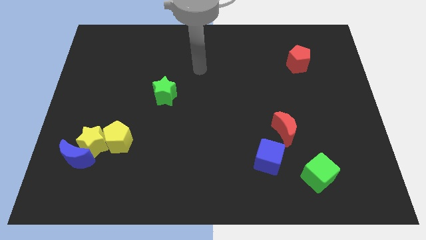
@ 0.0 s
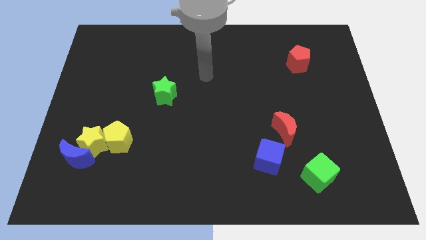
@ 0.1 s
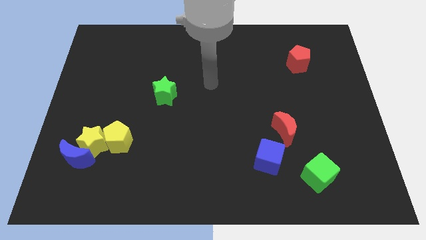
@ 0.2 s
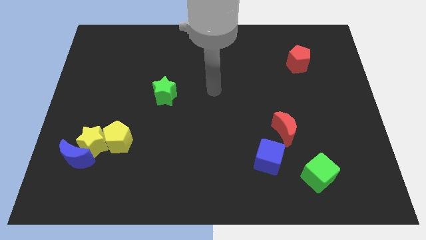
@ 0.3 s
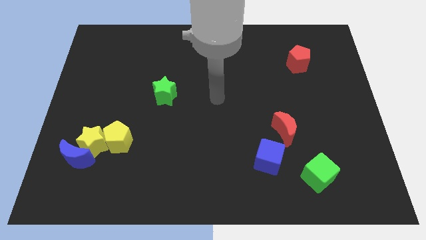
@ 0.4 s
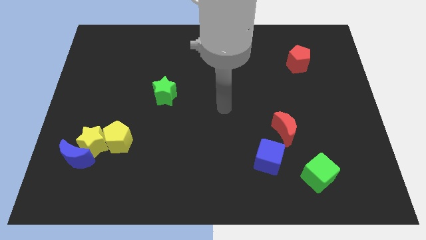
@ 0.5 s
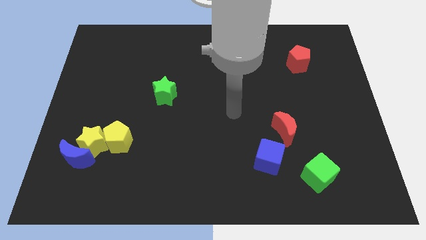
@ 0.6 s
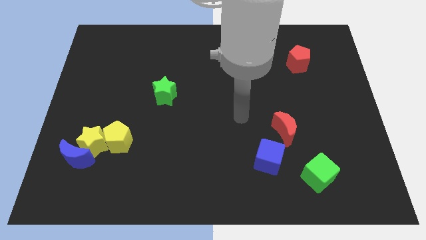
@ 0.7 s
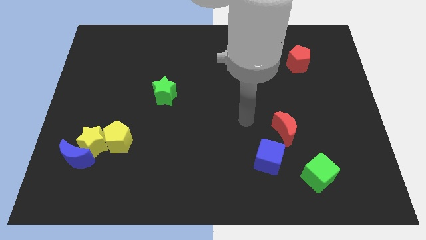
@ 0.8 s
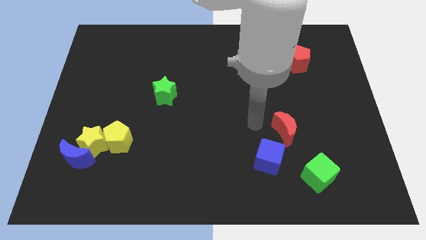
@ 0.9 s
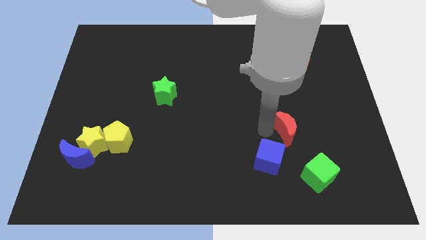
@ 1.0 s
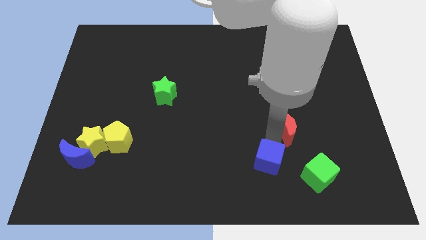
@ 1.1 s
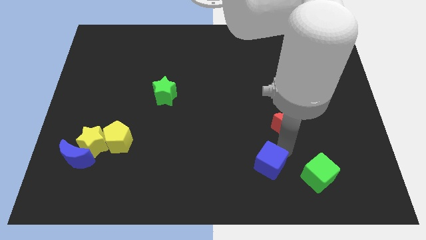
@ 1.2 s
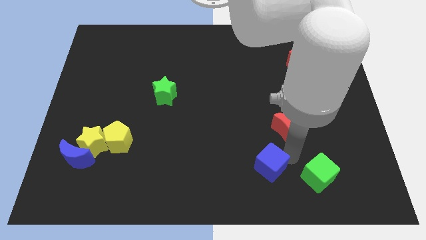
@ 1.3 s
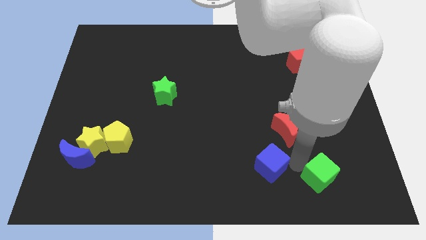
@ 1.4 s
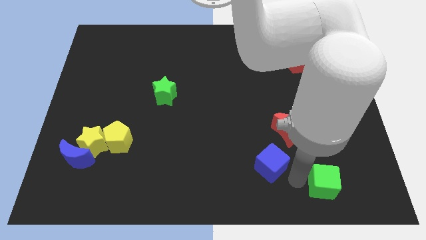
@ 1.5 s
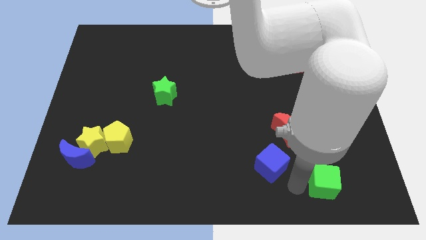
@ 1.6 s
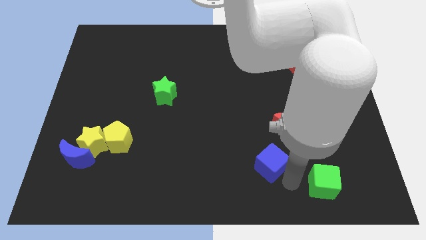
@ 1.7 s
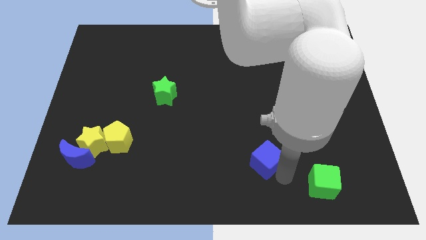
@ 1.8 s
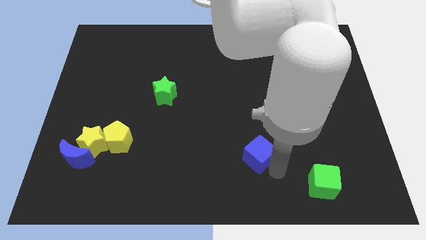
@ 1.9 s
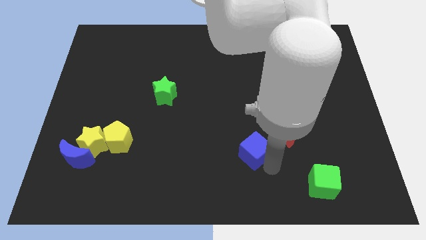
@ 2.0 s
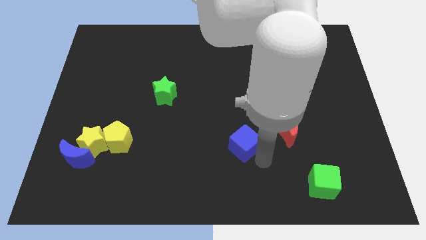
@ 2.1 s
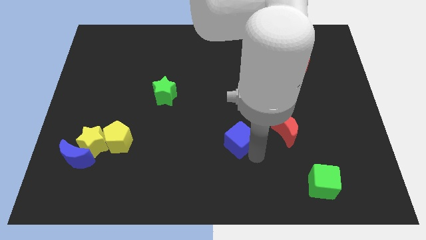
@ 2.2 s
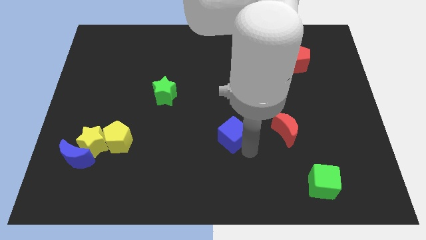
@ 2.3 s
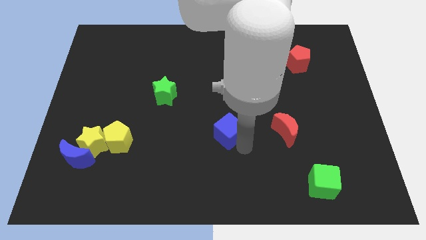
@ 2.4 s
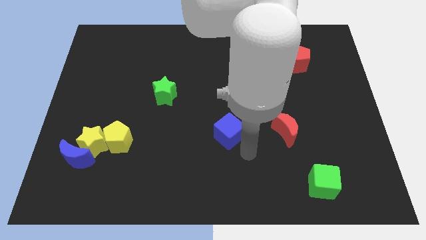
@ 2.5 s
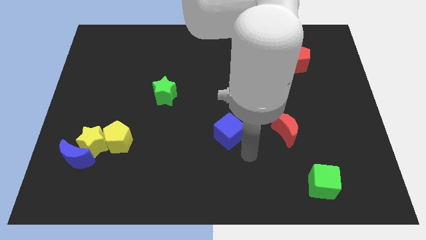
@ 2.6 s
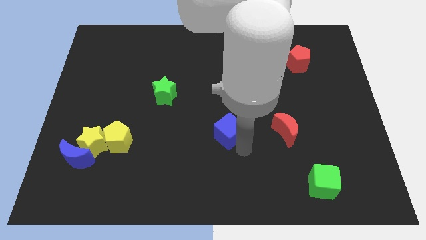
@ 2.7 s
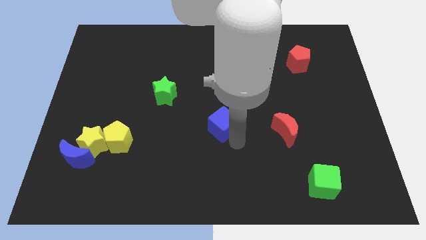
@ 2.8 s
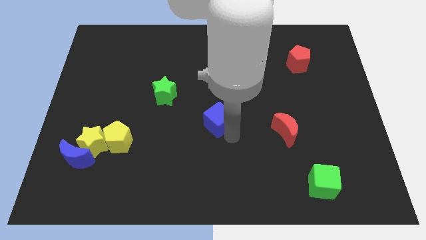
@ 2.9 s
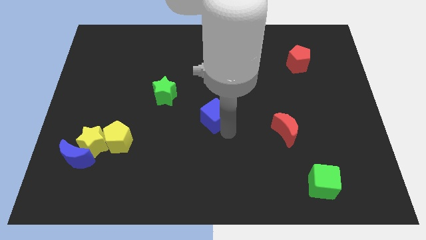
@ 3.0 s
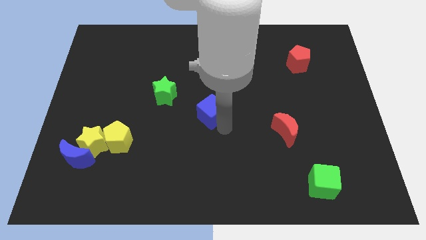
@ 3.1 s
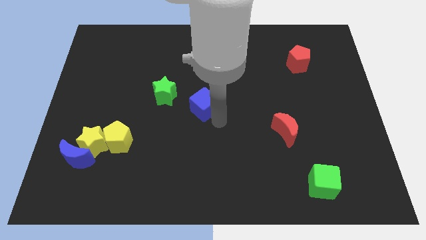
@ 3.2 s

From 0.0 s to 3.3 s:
move the blue cube diagonally up and left

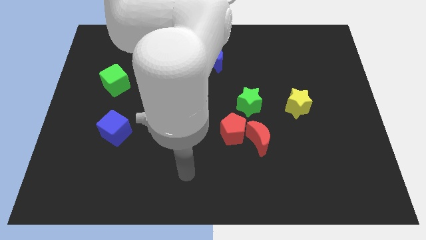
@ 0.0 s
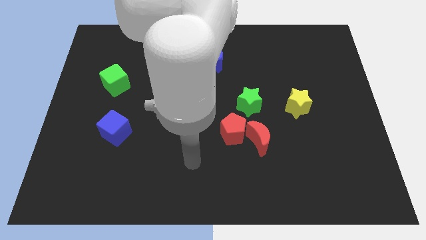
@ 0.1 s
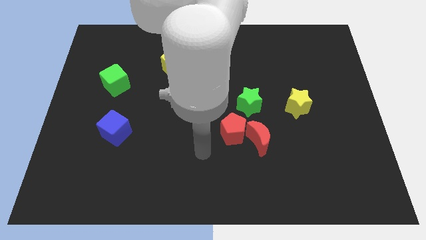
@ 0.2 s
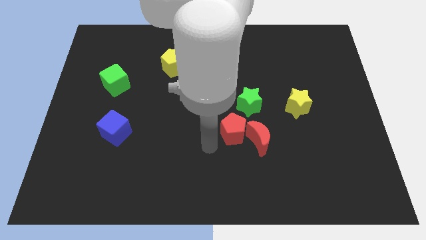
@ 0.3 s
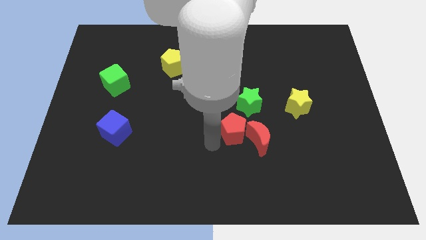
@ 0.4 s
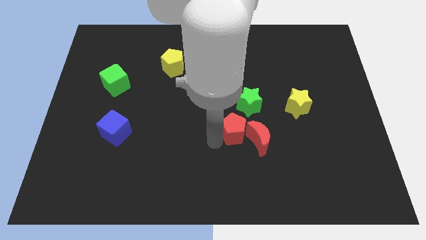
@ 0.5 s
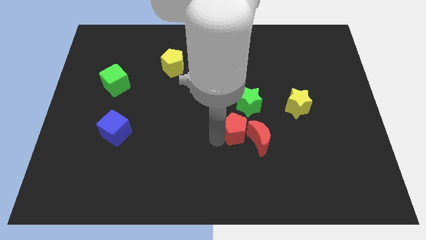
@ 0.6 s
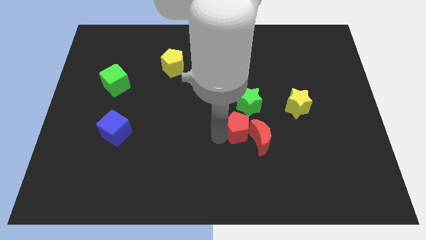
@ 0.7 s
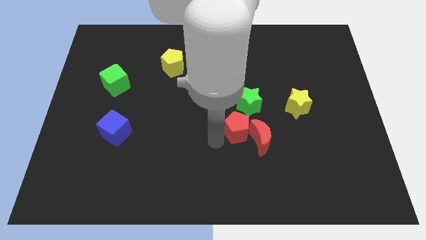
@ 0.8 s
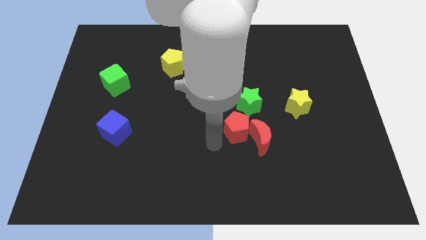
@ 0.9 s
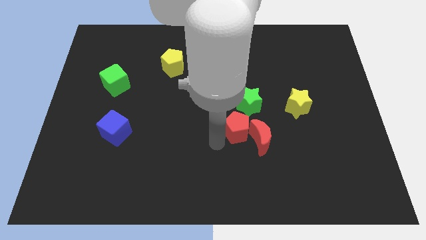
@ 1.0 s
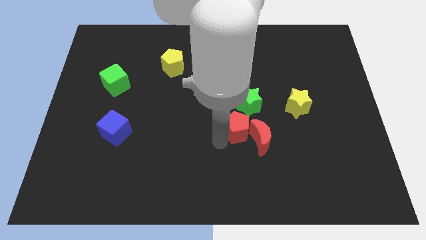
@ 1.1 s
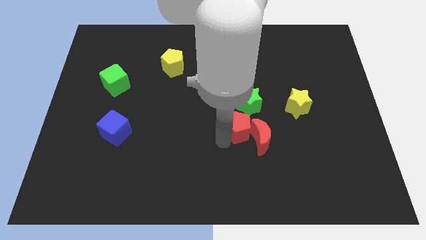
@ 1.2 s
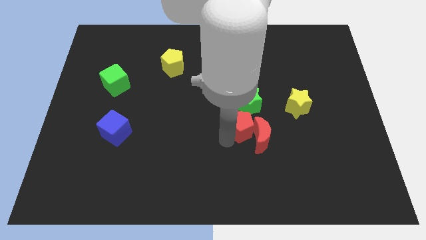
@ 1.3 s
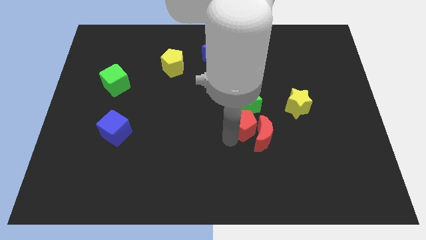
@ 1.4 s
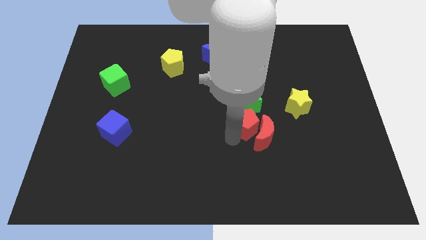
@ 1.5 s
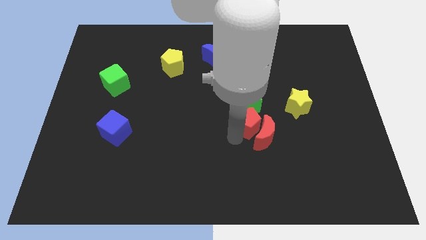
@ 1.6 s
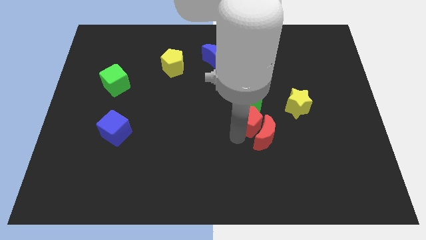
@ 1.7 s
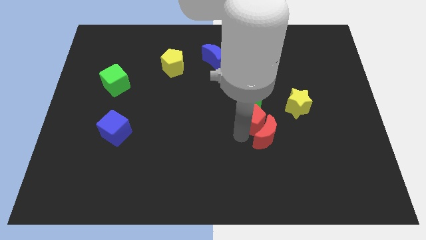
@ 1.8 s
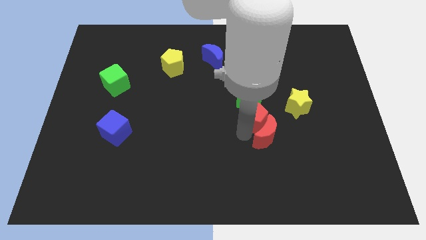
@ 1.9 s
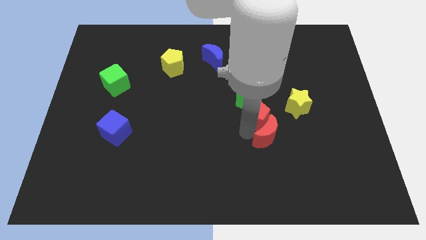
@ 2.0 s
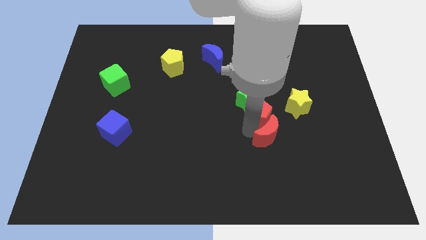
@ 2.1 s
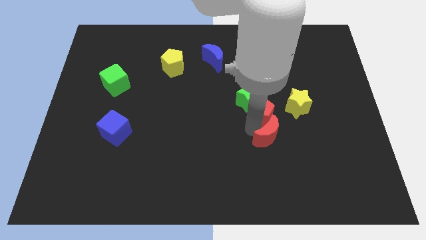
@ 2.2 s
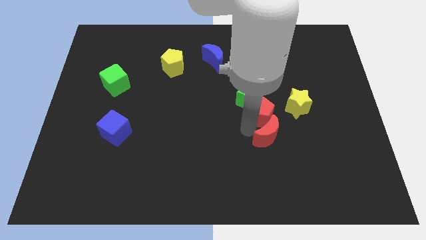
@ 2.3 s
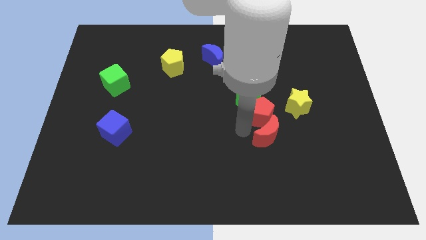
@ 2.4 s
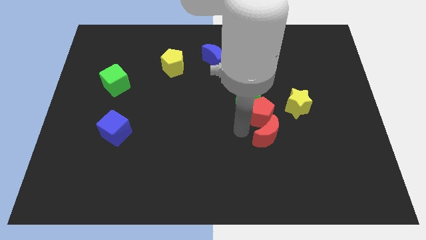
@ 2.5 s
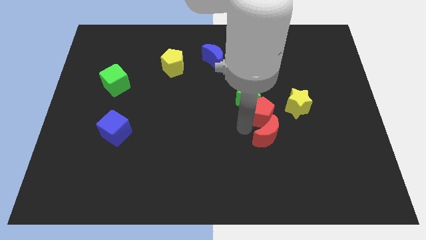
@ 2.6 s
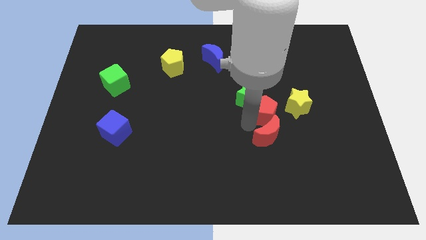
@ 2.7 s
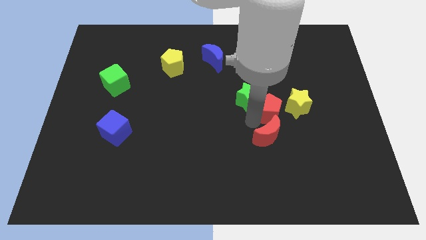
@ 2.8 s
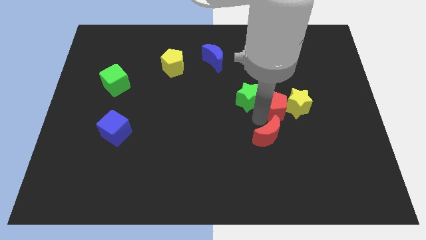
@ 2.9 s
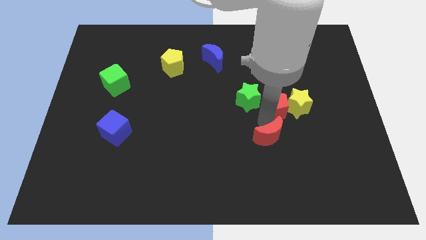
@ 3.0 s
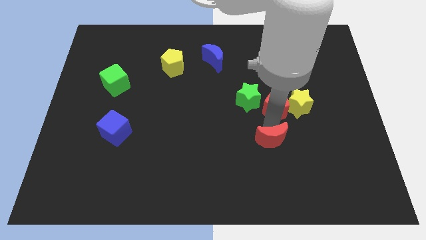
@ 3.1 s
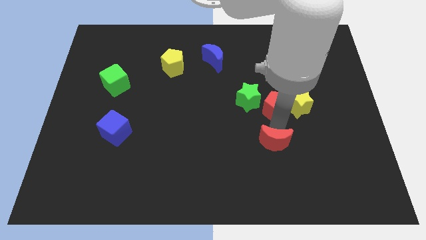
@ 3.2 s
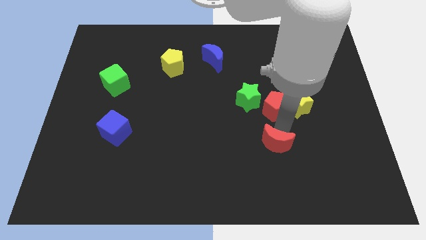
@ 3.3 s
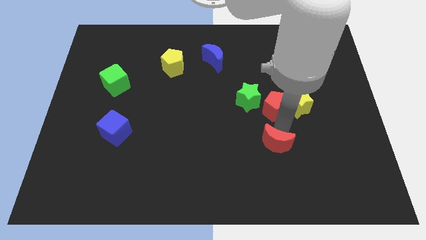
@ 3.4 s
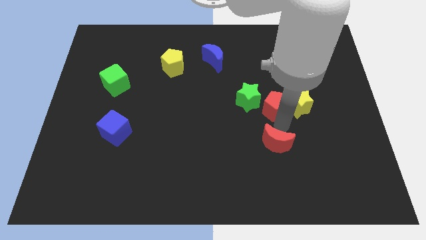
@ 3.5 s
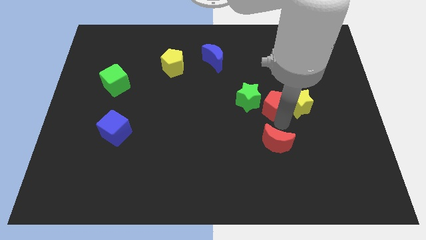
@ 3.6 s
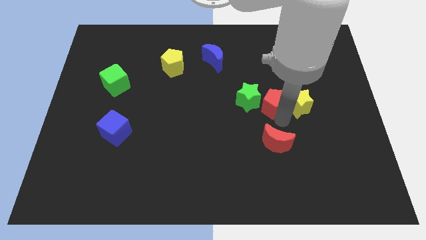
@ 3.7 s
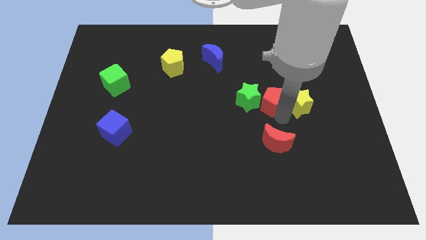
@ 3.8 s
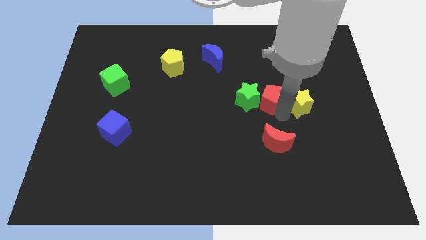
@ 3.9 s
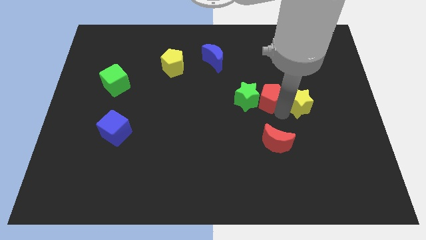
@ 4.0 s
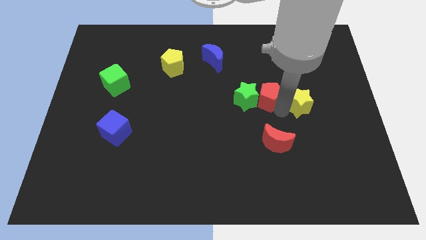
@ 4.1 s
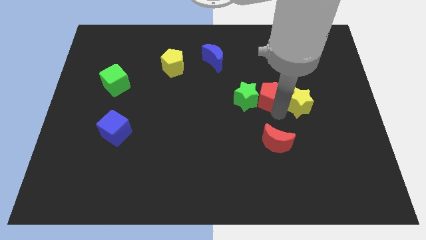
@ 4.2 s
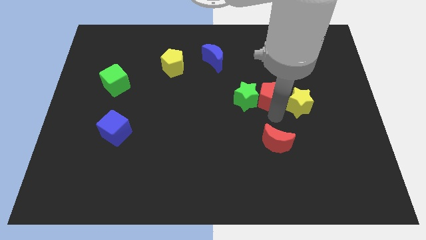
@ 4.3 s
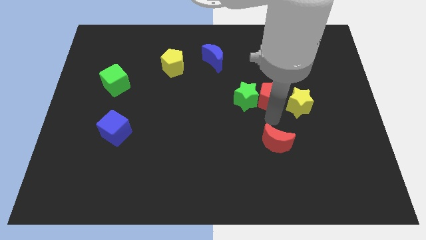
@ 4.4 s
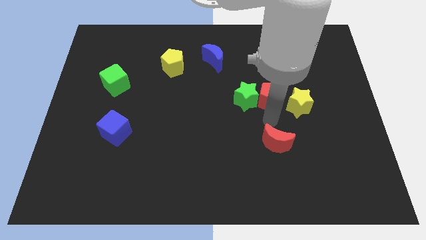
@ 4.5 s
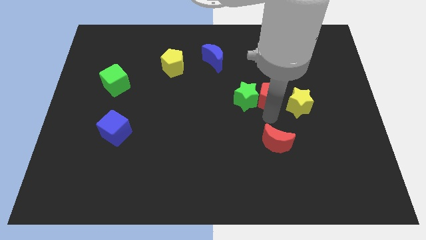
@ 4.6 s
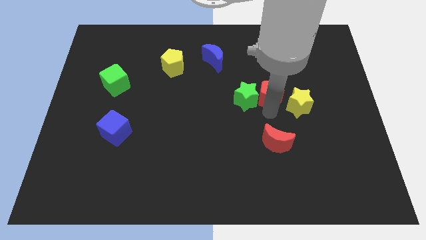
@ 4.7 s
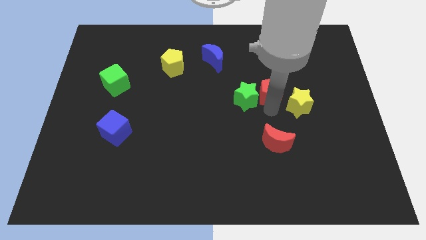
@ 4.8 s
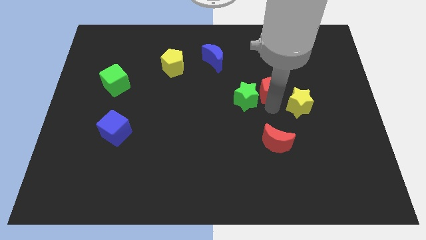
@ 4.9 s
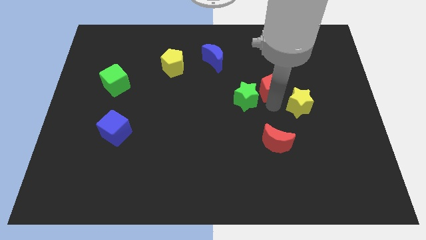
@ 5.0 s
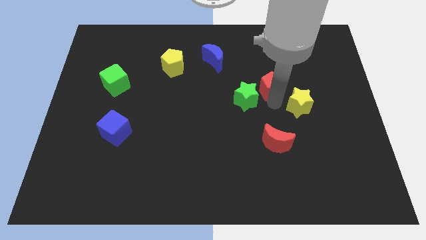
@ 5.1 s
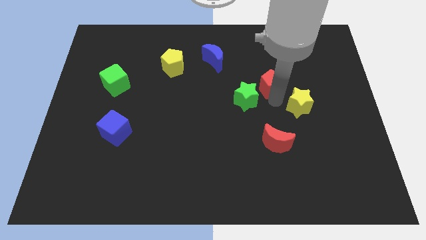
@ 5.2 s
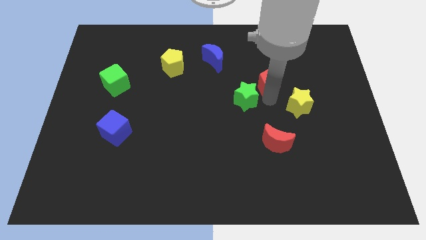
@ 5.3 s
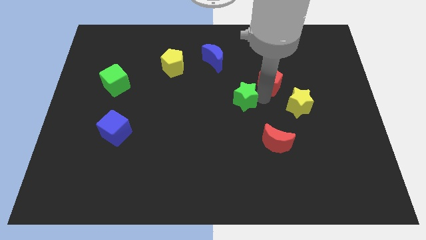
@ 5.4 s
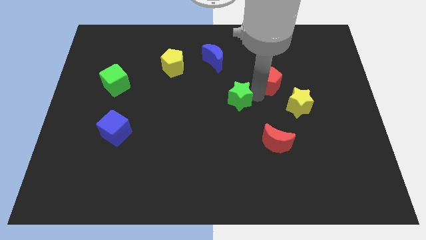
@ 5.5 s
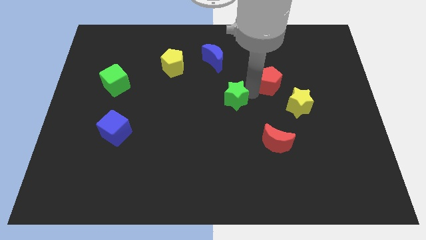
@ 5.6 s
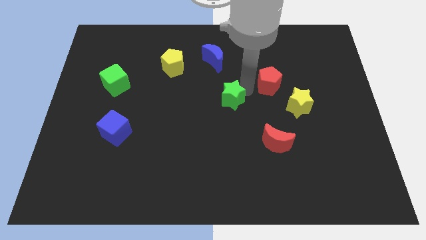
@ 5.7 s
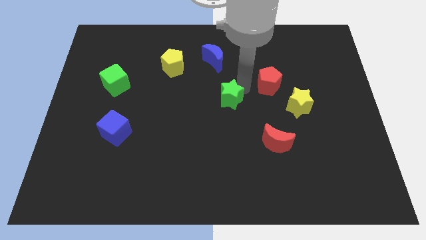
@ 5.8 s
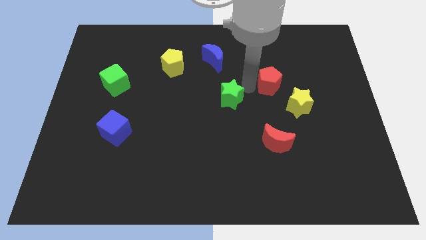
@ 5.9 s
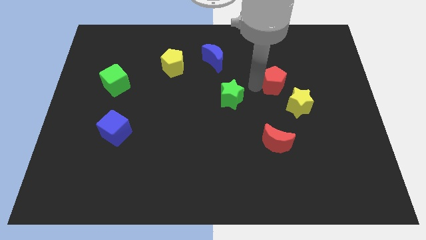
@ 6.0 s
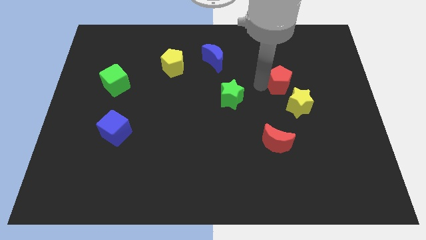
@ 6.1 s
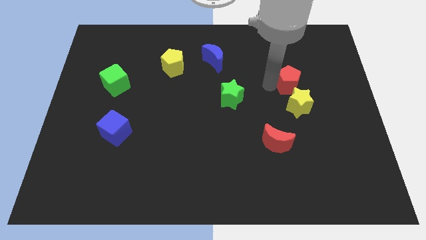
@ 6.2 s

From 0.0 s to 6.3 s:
slide the red pentagon up and to the right diagonally
